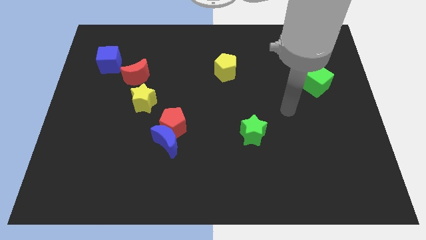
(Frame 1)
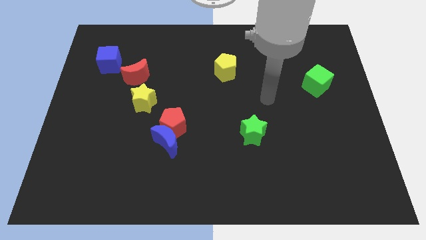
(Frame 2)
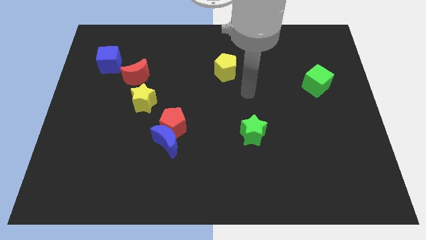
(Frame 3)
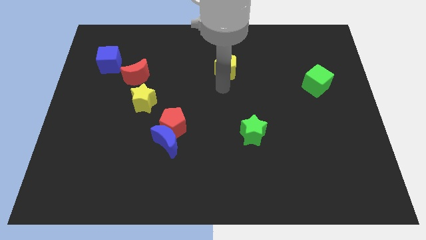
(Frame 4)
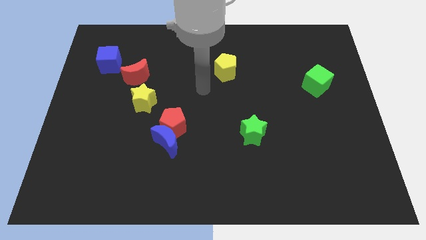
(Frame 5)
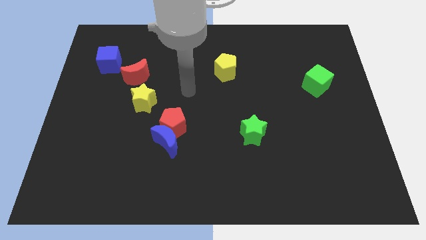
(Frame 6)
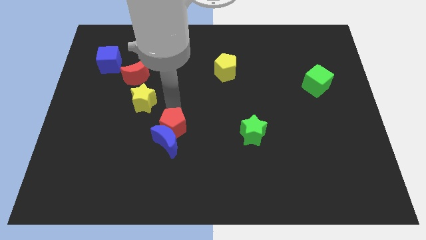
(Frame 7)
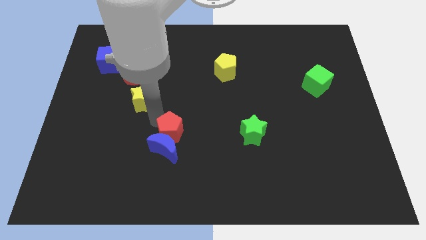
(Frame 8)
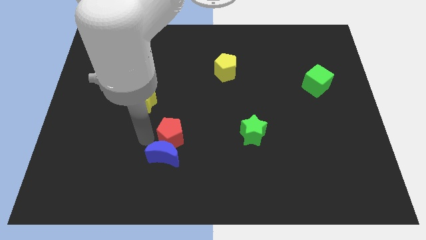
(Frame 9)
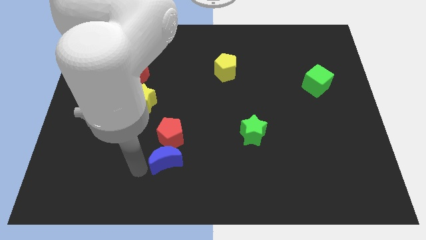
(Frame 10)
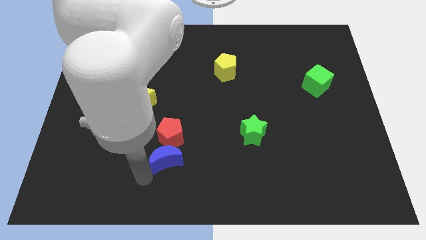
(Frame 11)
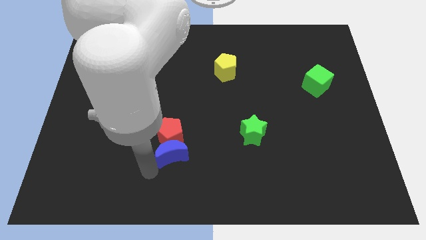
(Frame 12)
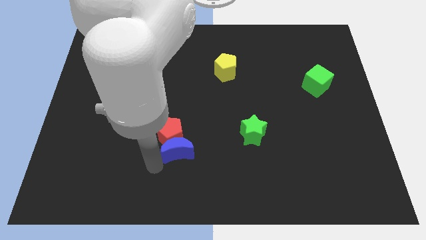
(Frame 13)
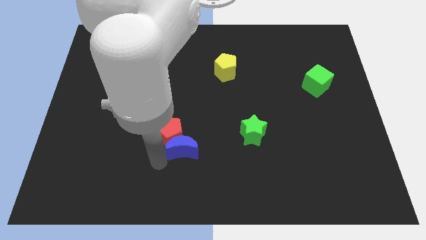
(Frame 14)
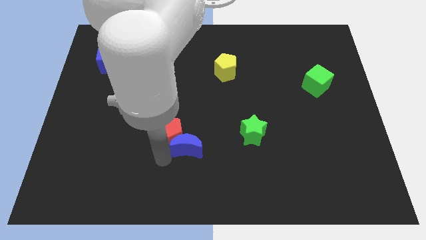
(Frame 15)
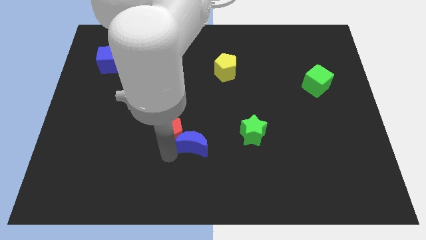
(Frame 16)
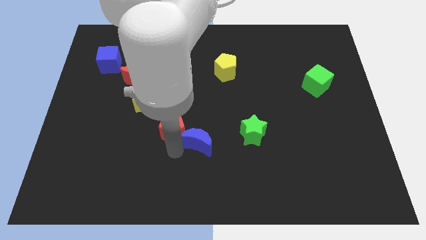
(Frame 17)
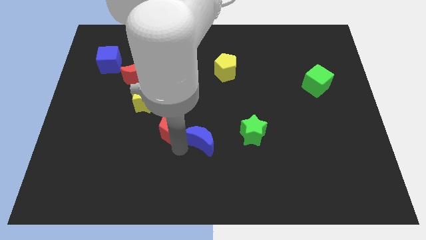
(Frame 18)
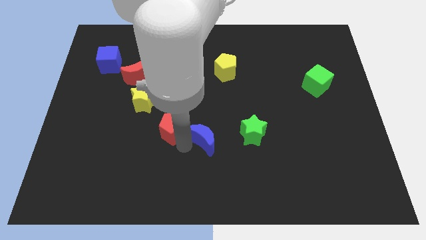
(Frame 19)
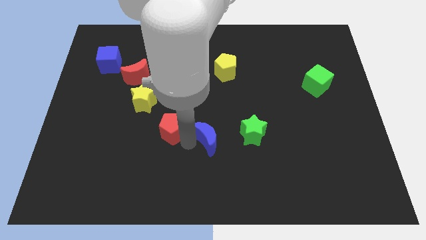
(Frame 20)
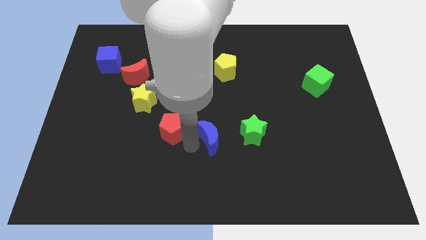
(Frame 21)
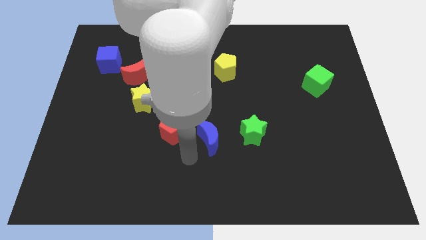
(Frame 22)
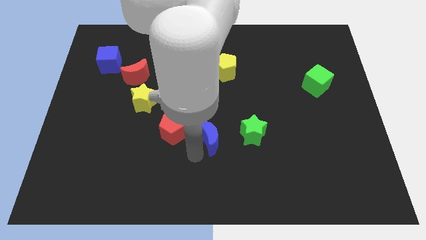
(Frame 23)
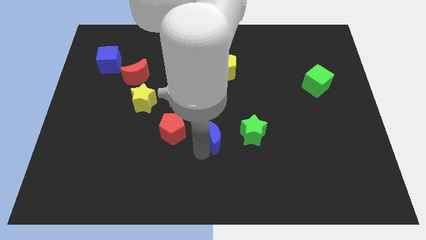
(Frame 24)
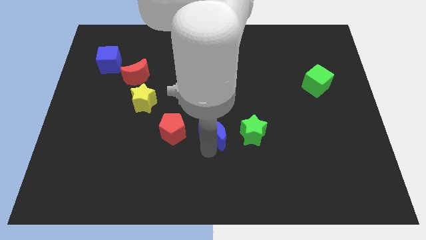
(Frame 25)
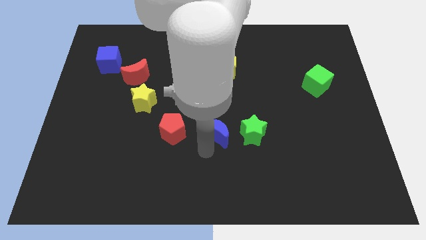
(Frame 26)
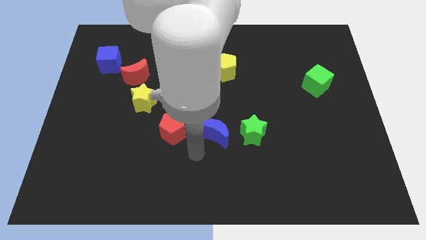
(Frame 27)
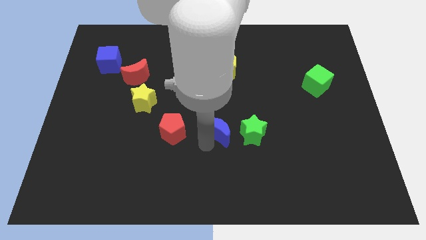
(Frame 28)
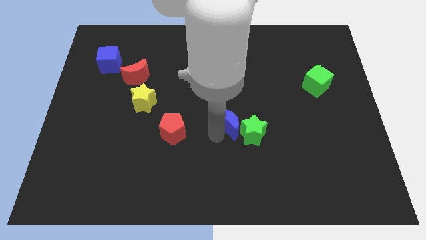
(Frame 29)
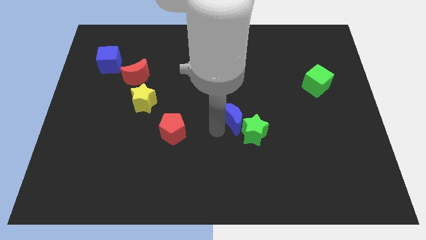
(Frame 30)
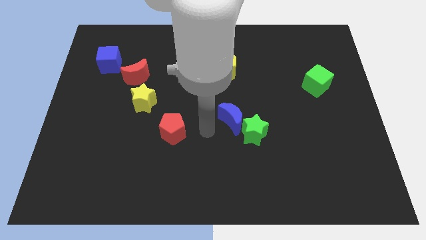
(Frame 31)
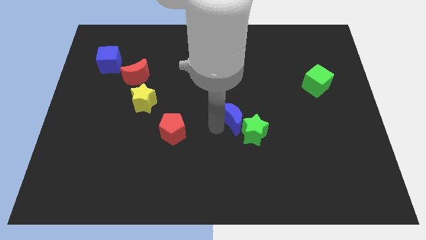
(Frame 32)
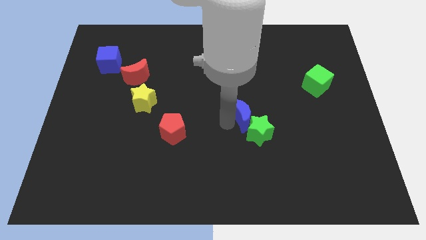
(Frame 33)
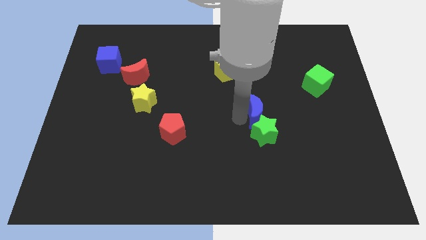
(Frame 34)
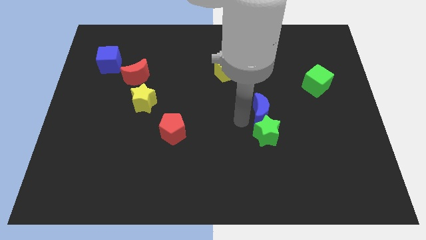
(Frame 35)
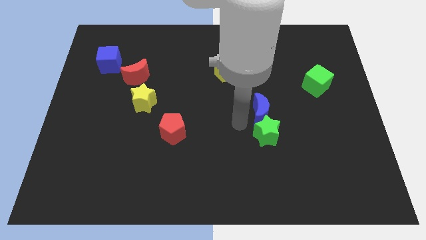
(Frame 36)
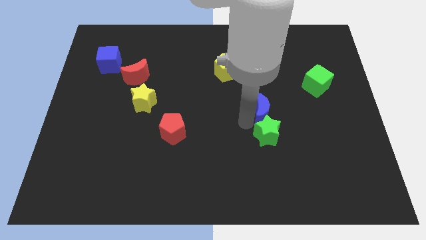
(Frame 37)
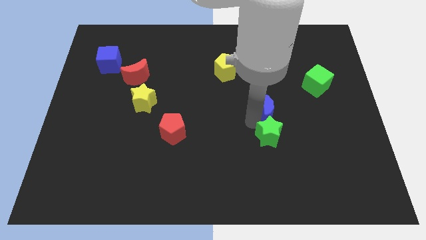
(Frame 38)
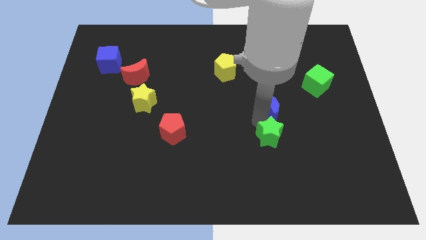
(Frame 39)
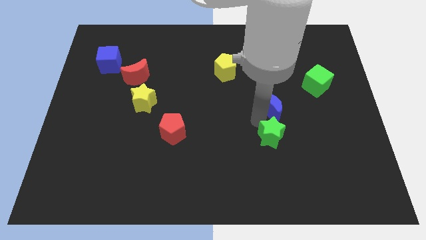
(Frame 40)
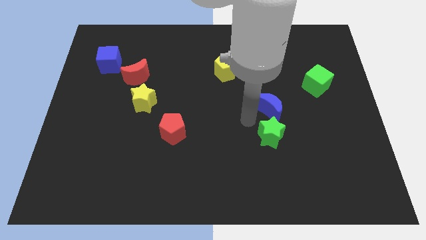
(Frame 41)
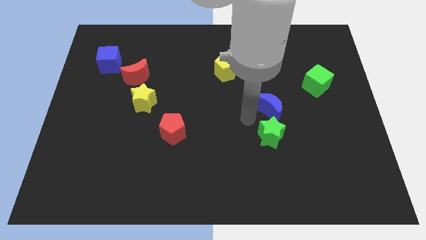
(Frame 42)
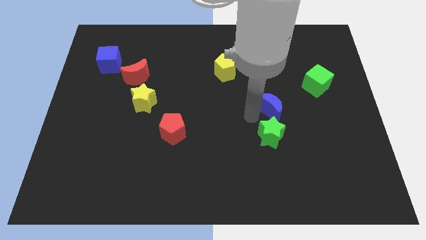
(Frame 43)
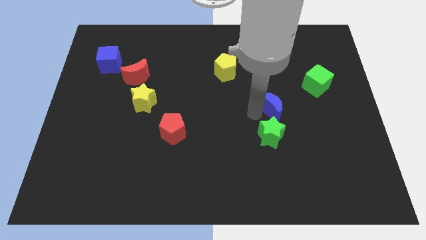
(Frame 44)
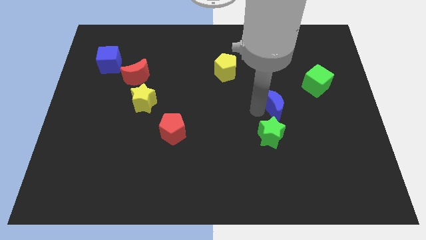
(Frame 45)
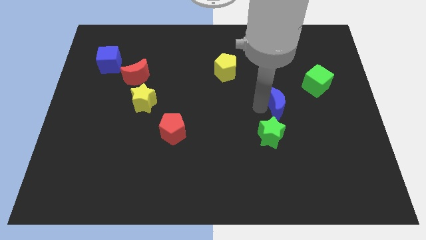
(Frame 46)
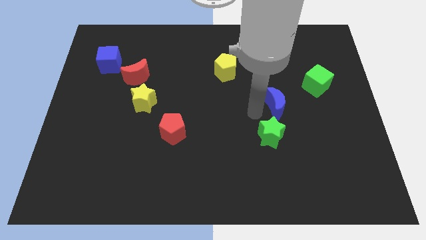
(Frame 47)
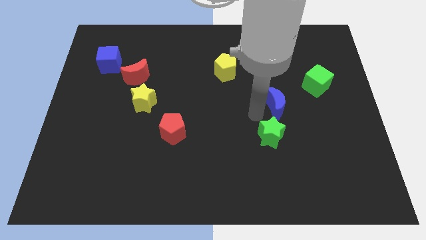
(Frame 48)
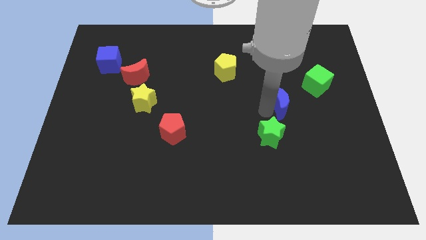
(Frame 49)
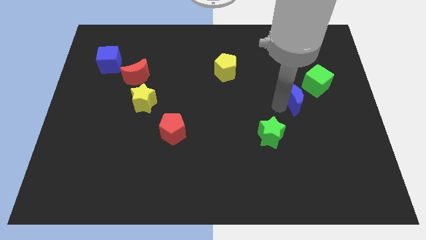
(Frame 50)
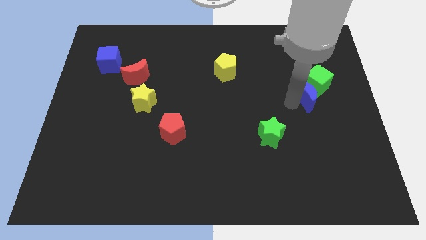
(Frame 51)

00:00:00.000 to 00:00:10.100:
move the blue moon to the green cube

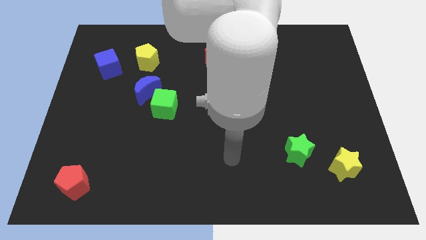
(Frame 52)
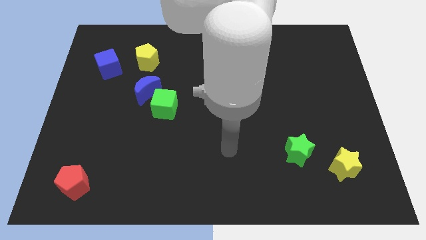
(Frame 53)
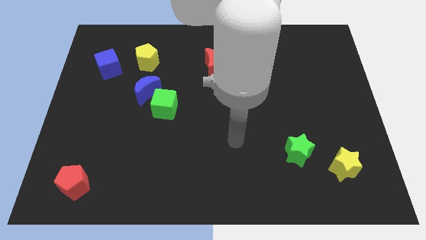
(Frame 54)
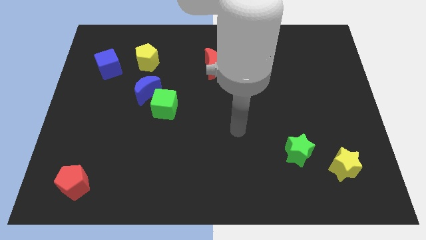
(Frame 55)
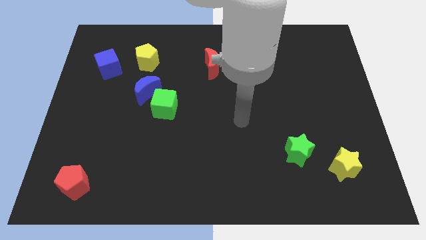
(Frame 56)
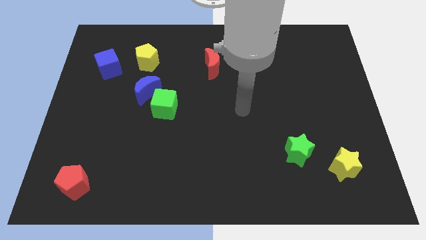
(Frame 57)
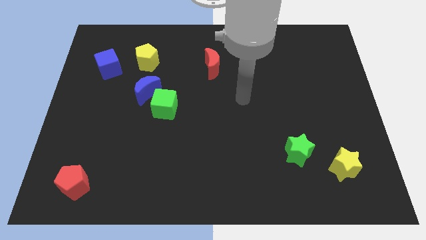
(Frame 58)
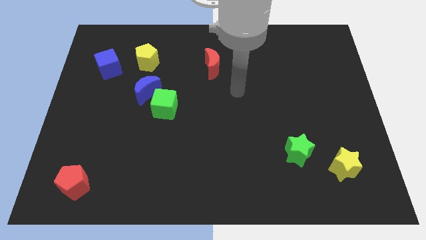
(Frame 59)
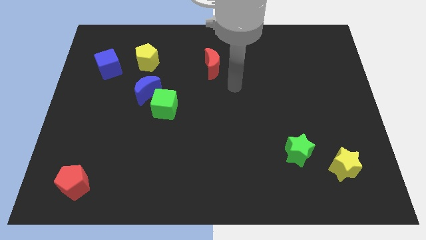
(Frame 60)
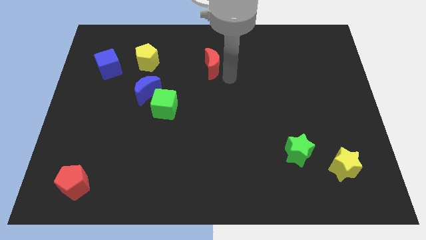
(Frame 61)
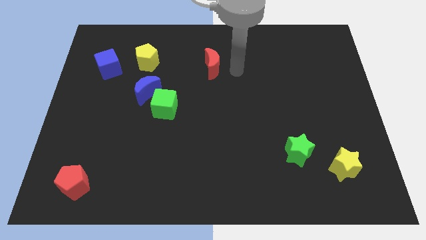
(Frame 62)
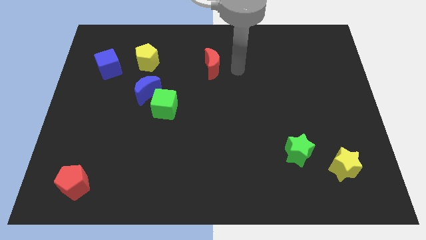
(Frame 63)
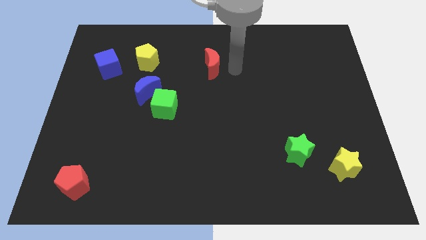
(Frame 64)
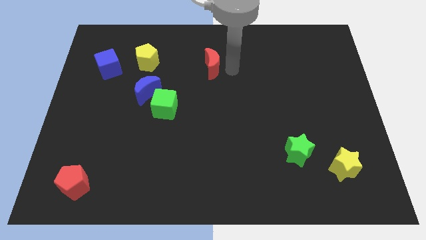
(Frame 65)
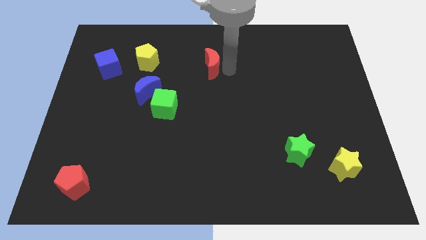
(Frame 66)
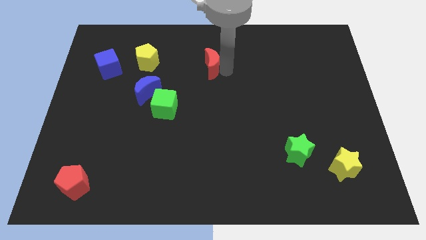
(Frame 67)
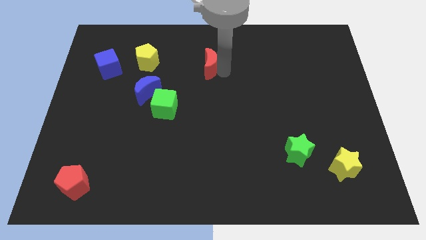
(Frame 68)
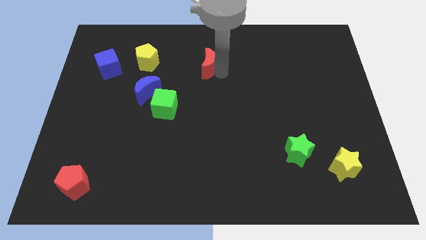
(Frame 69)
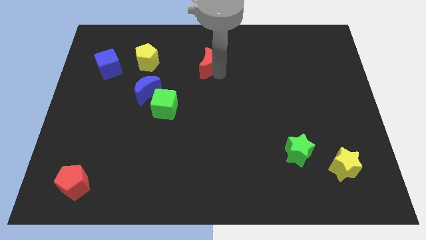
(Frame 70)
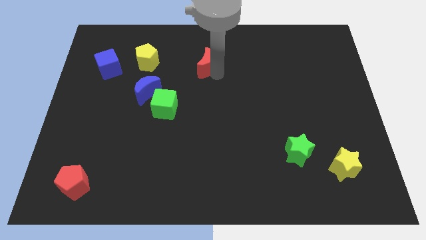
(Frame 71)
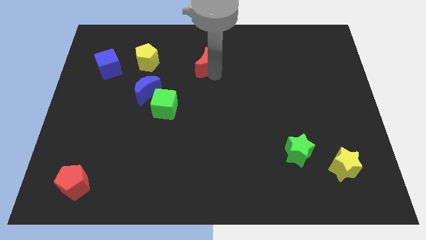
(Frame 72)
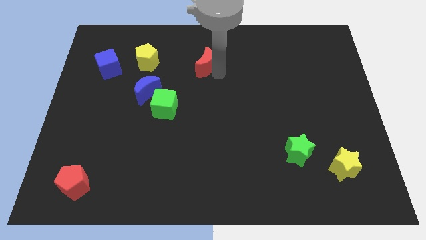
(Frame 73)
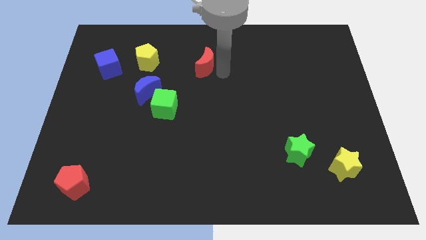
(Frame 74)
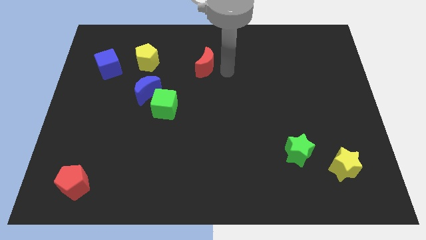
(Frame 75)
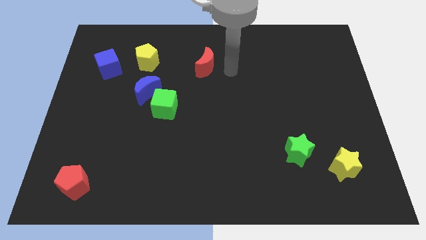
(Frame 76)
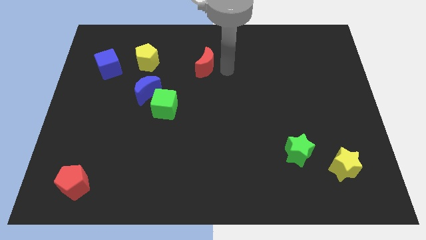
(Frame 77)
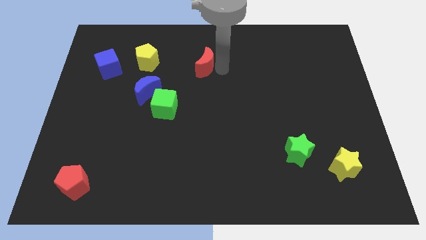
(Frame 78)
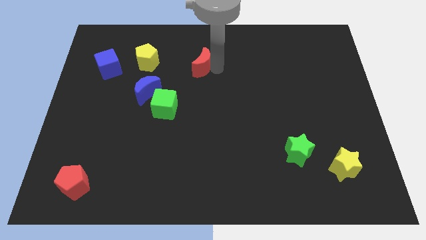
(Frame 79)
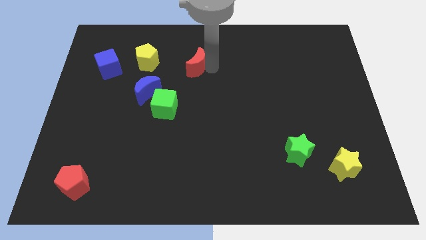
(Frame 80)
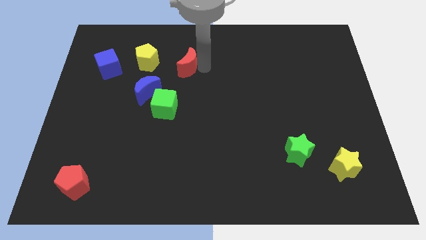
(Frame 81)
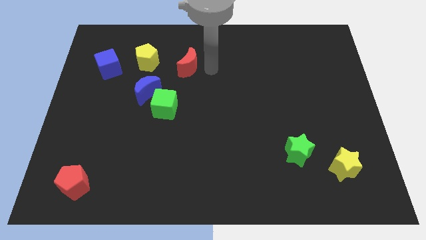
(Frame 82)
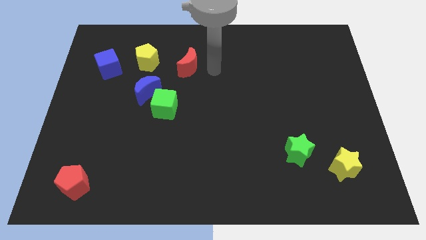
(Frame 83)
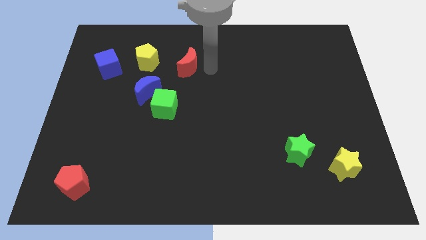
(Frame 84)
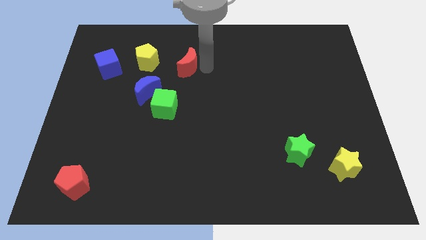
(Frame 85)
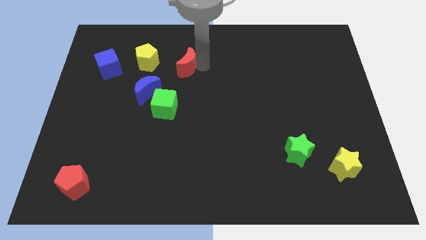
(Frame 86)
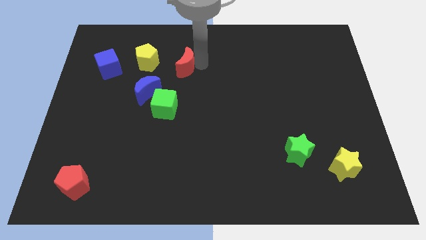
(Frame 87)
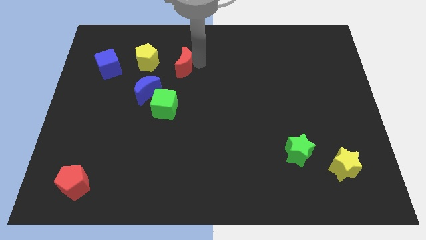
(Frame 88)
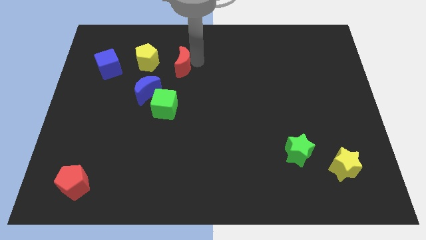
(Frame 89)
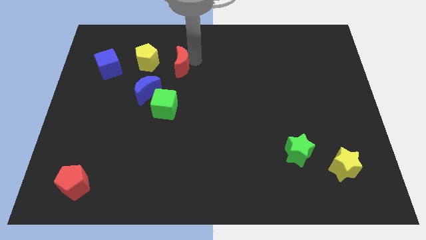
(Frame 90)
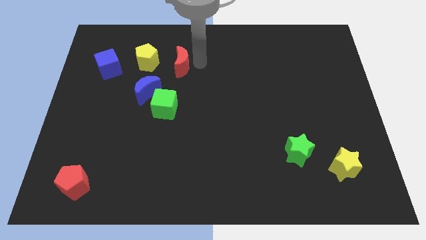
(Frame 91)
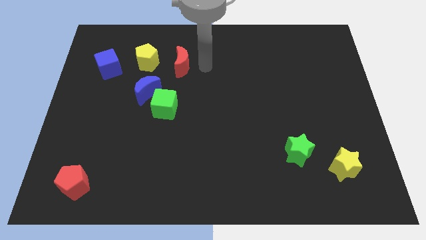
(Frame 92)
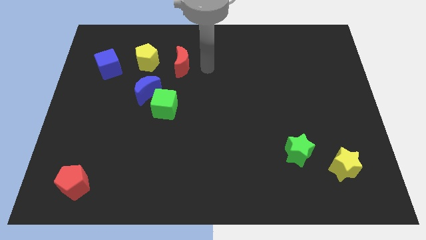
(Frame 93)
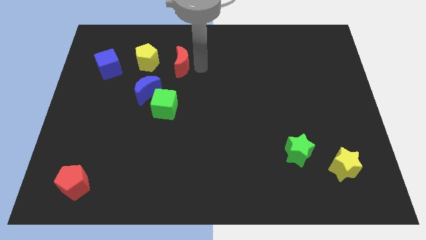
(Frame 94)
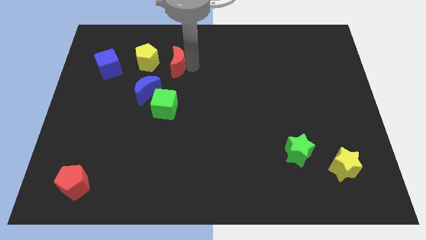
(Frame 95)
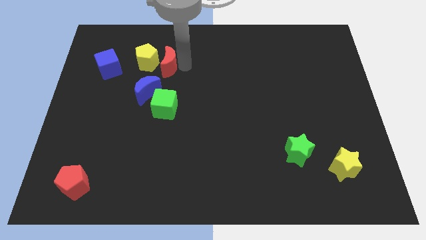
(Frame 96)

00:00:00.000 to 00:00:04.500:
put the red moon close to the yellow pentagon
